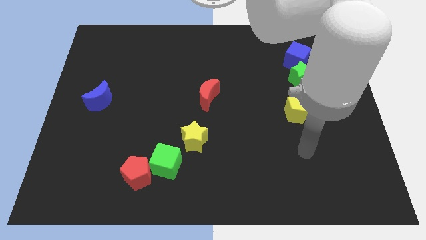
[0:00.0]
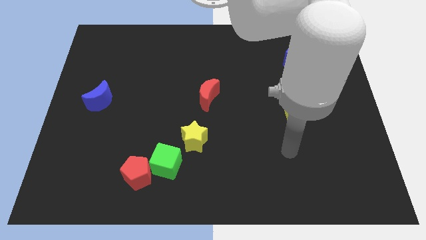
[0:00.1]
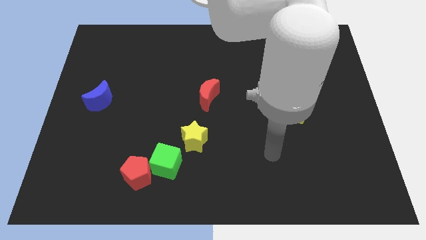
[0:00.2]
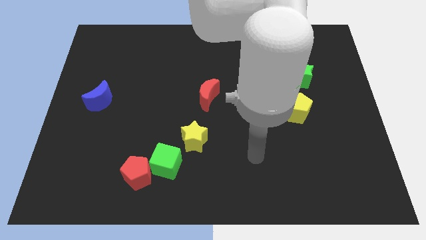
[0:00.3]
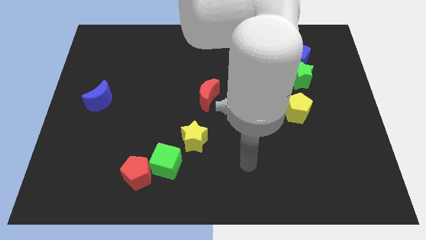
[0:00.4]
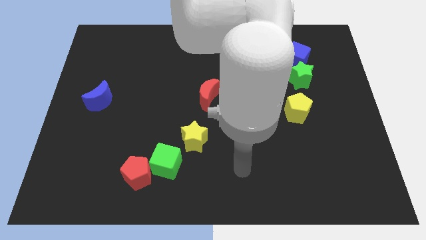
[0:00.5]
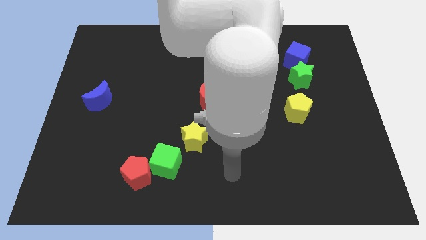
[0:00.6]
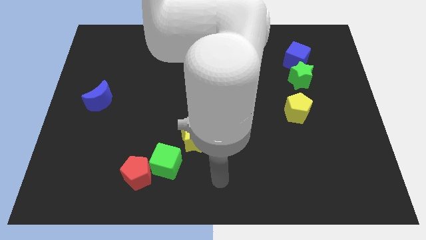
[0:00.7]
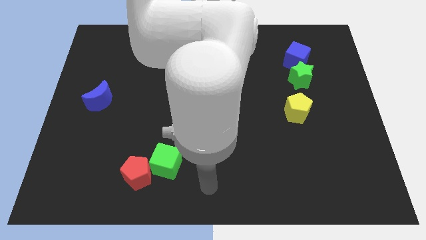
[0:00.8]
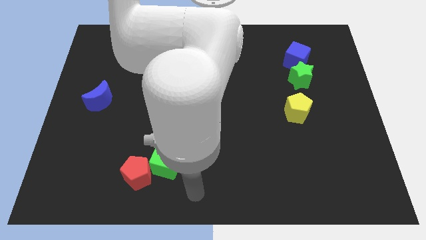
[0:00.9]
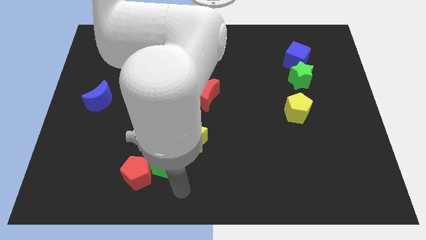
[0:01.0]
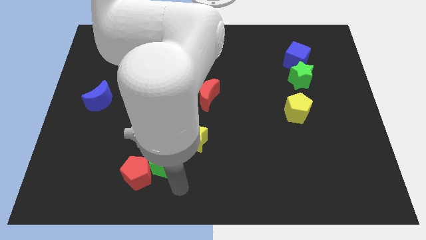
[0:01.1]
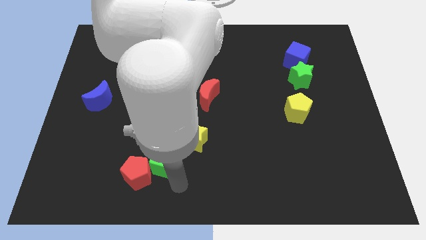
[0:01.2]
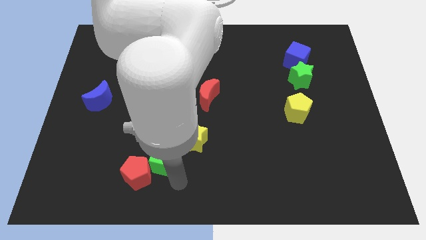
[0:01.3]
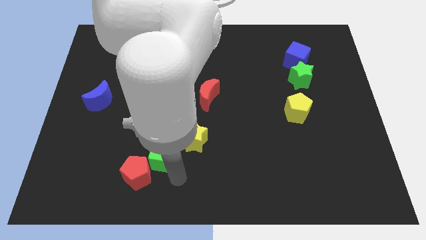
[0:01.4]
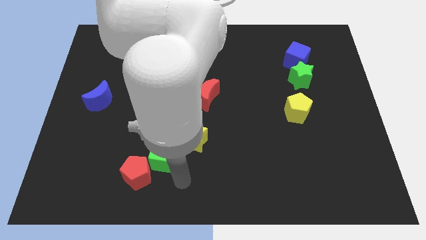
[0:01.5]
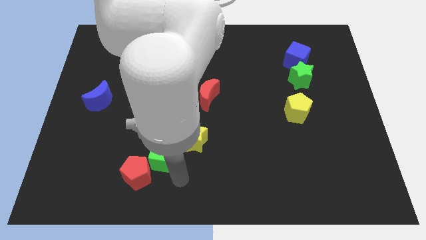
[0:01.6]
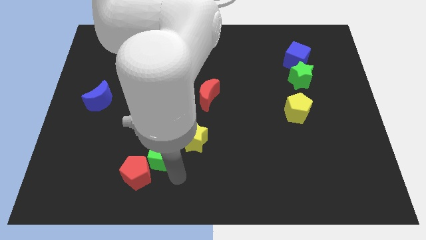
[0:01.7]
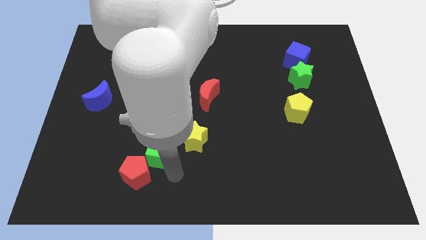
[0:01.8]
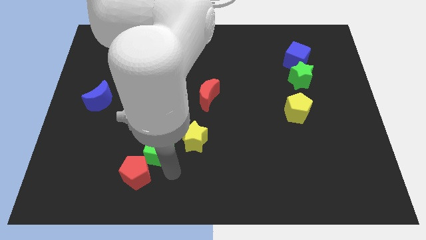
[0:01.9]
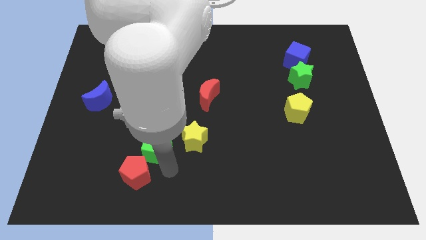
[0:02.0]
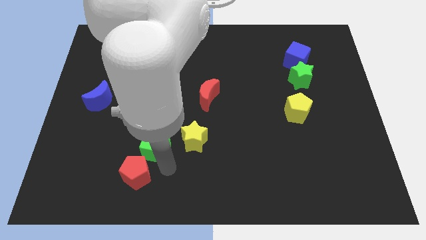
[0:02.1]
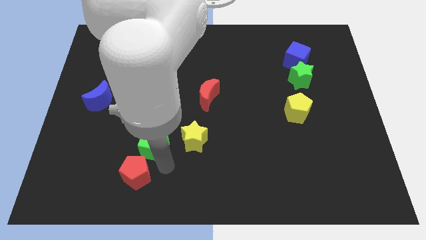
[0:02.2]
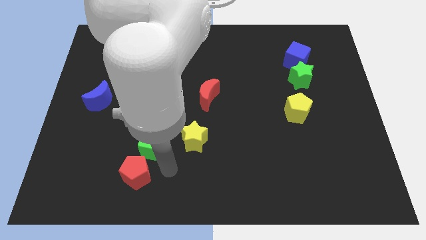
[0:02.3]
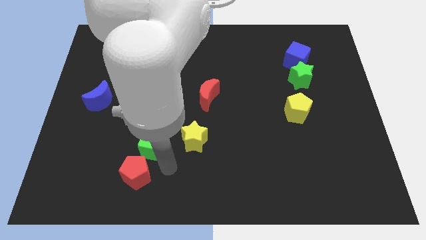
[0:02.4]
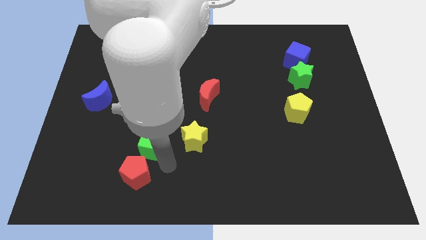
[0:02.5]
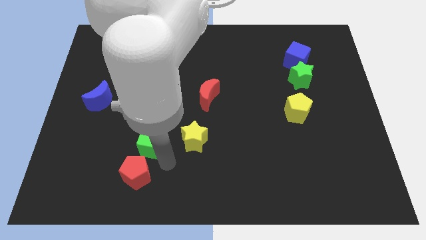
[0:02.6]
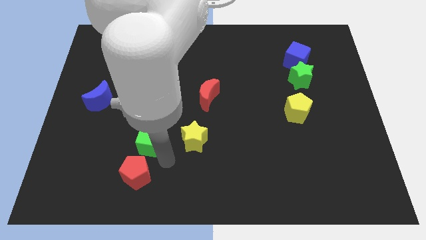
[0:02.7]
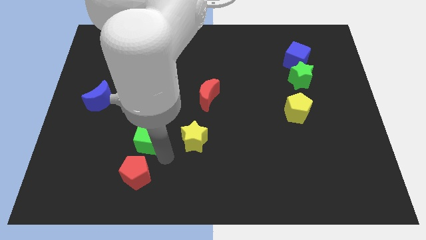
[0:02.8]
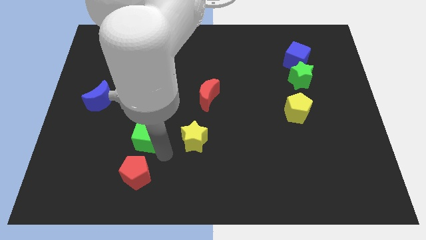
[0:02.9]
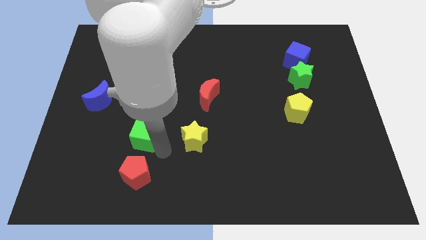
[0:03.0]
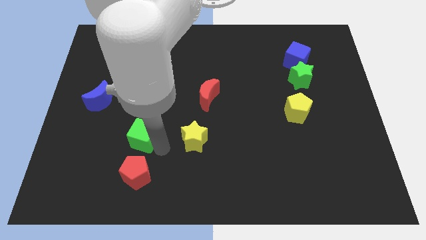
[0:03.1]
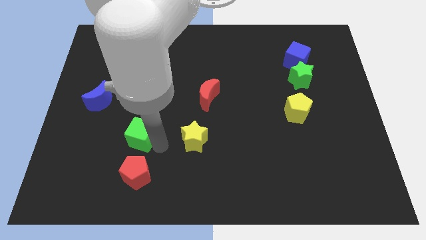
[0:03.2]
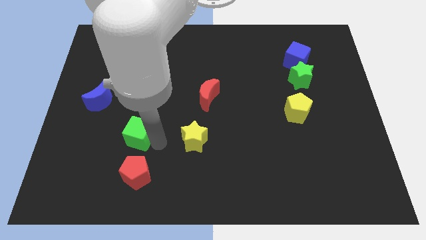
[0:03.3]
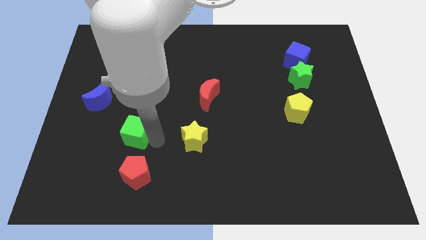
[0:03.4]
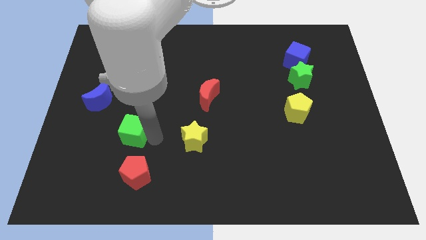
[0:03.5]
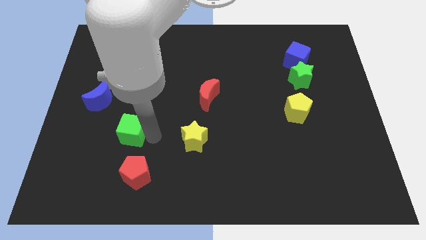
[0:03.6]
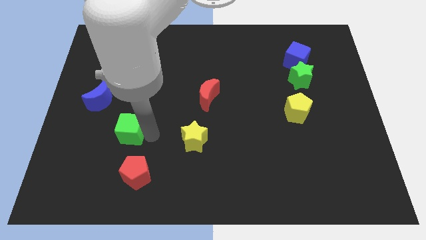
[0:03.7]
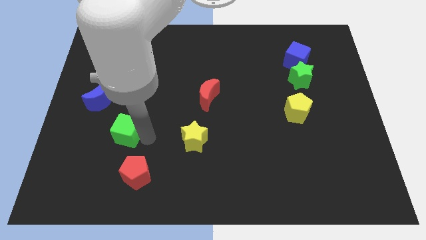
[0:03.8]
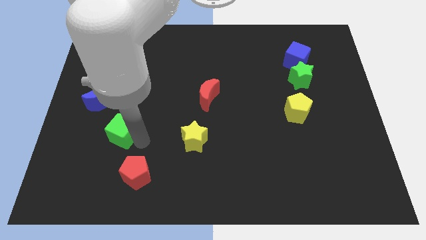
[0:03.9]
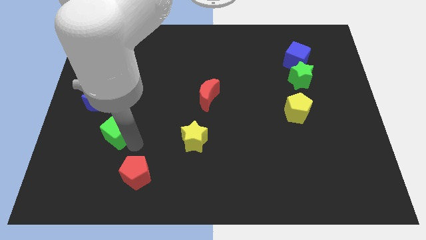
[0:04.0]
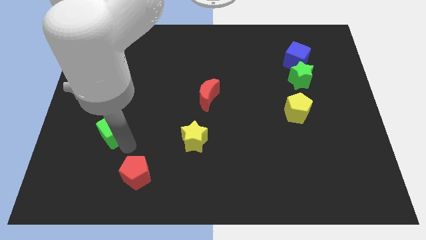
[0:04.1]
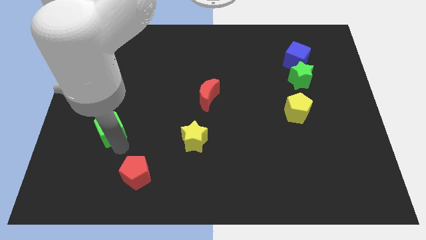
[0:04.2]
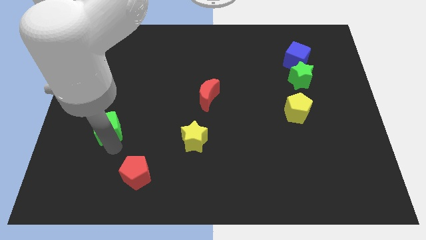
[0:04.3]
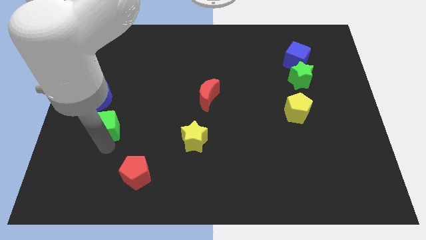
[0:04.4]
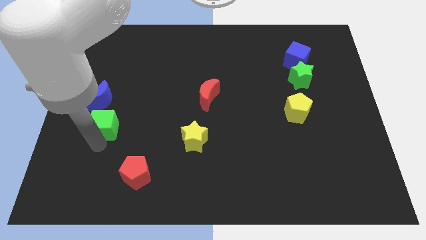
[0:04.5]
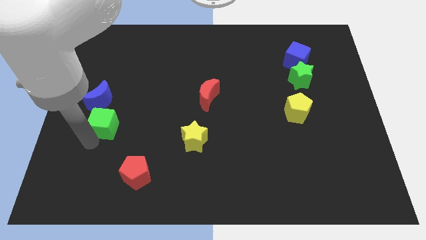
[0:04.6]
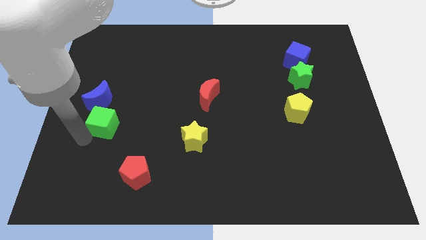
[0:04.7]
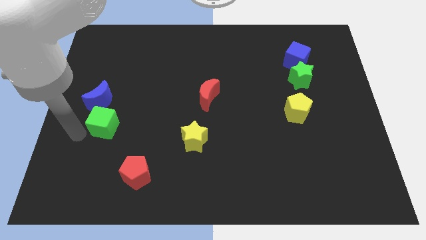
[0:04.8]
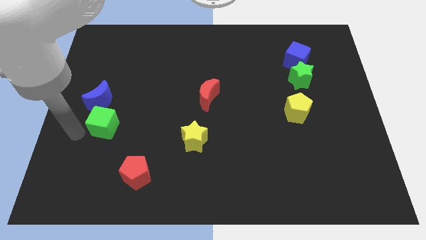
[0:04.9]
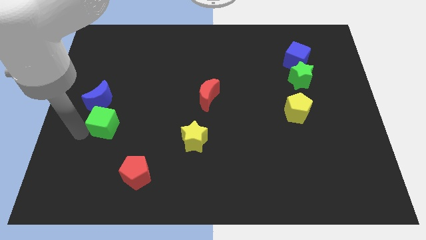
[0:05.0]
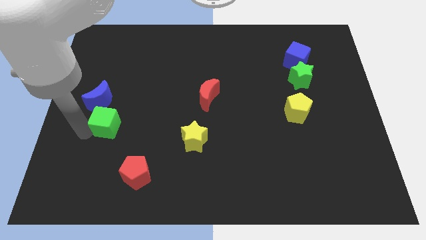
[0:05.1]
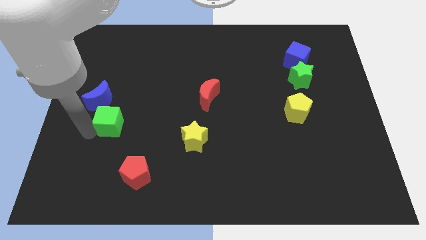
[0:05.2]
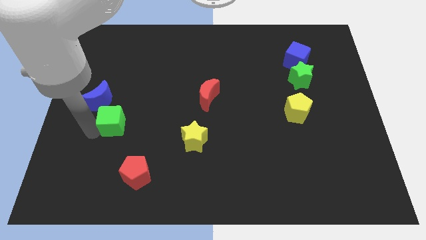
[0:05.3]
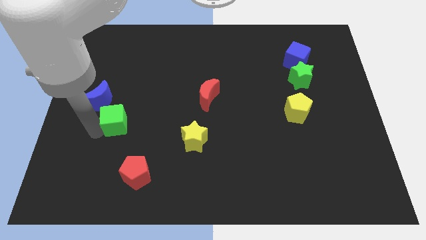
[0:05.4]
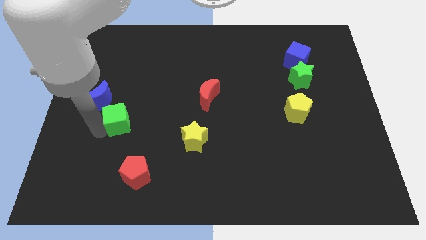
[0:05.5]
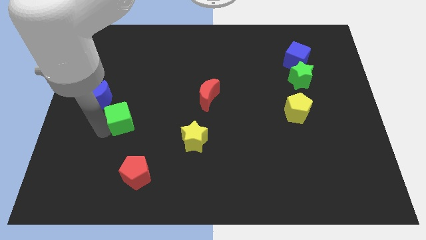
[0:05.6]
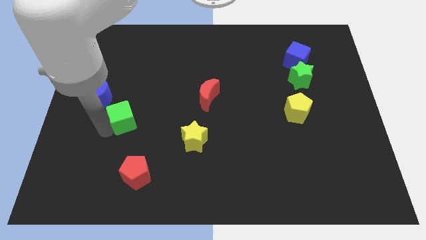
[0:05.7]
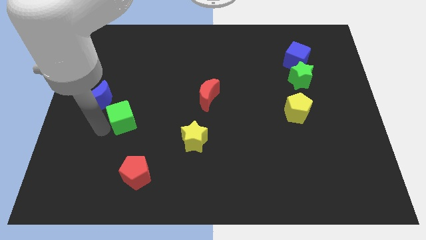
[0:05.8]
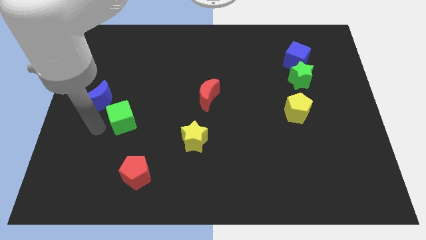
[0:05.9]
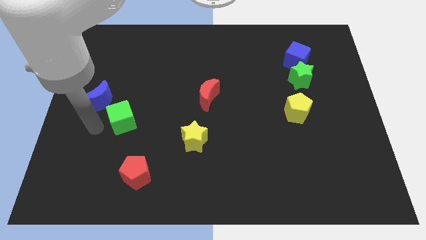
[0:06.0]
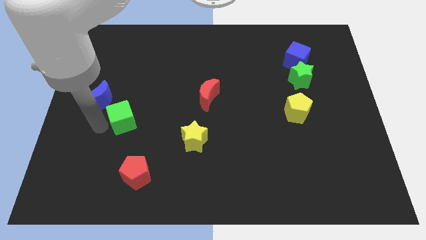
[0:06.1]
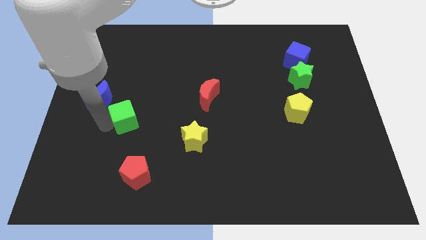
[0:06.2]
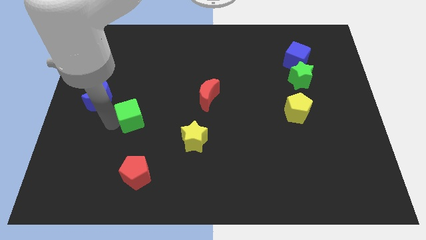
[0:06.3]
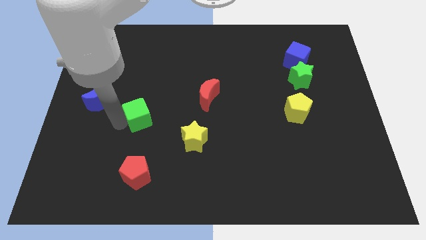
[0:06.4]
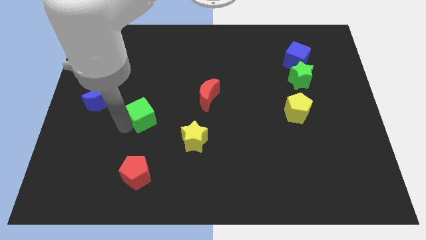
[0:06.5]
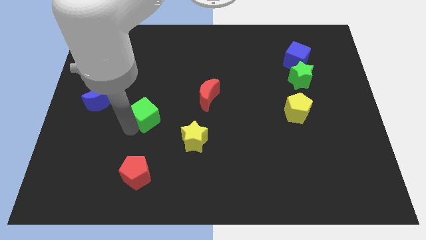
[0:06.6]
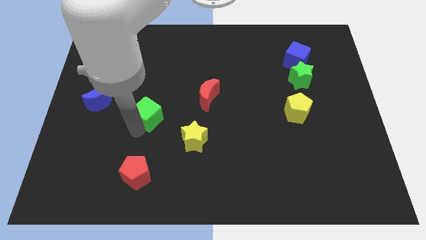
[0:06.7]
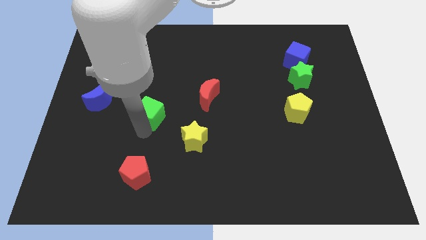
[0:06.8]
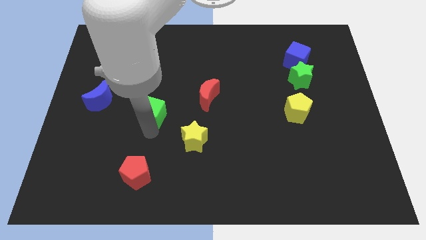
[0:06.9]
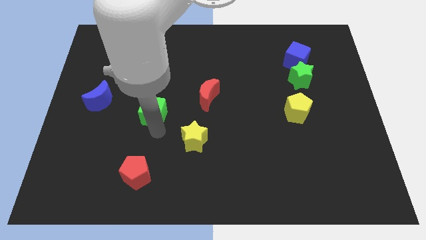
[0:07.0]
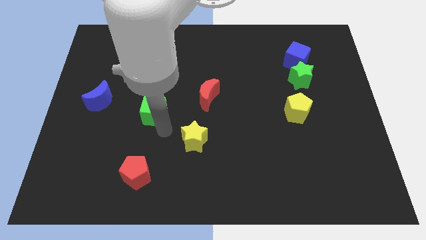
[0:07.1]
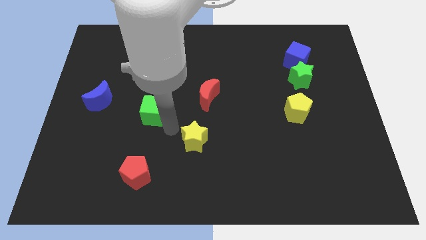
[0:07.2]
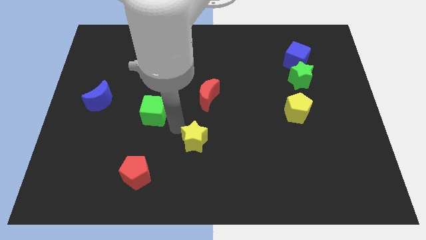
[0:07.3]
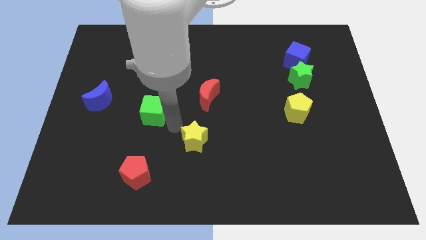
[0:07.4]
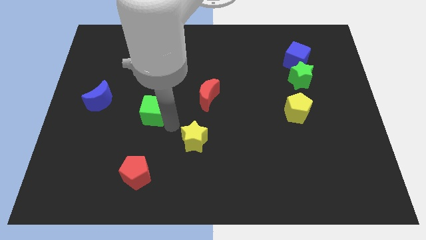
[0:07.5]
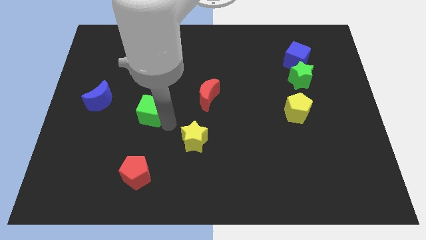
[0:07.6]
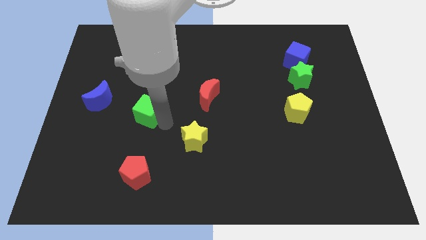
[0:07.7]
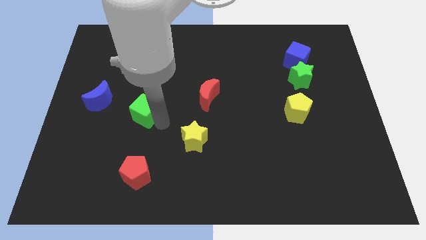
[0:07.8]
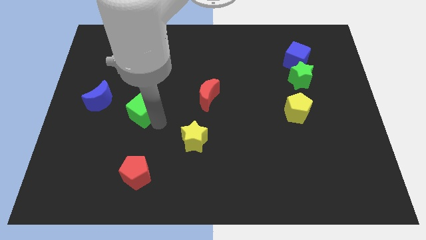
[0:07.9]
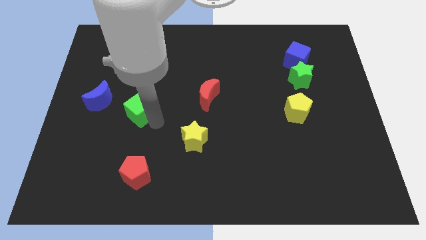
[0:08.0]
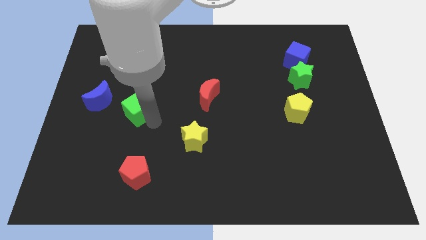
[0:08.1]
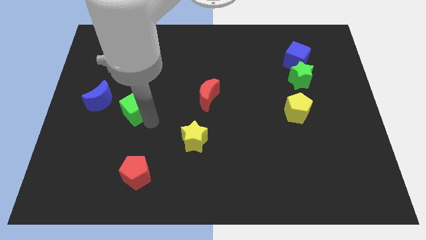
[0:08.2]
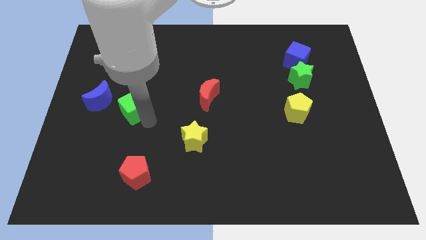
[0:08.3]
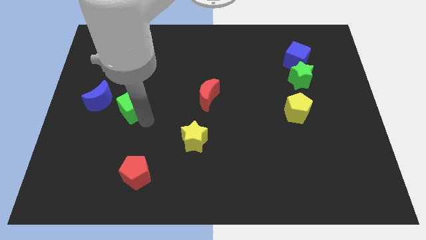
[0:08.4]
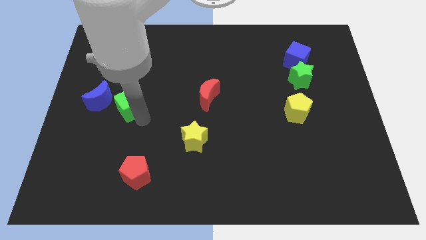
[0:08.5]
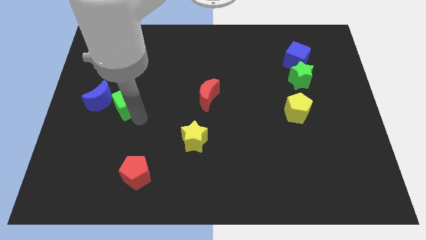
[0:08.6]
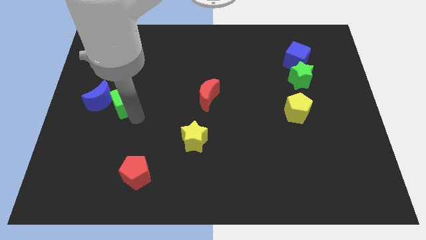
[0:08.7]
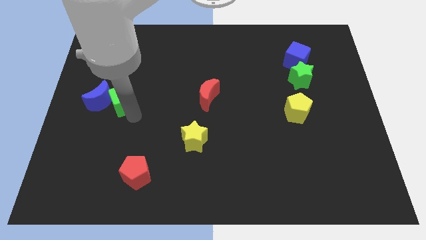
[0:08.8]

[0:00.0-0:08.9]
push the green cube to the top right side of the blue moon
